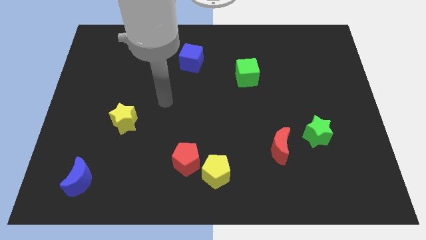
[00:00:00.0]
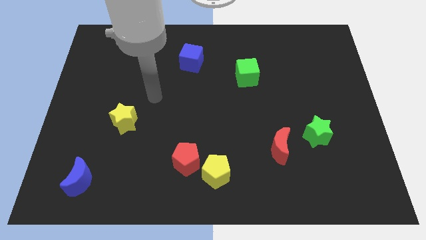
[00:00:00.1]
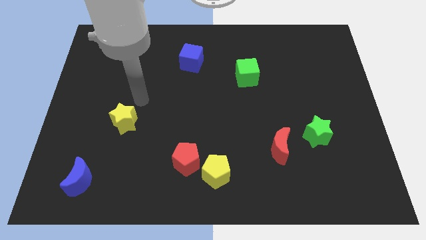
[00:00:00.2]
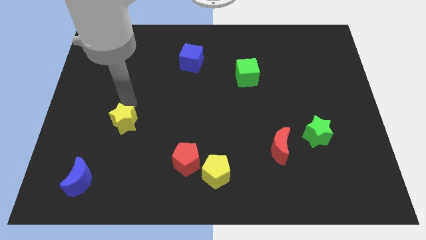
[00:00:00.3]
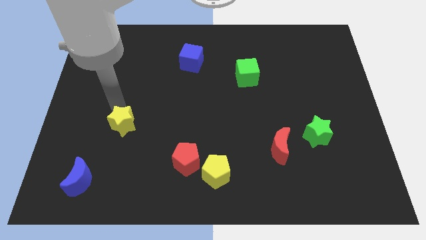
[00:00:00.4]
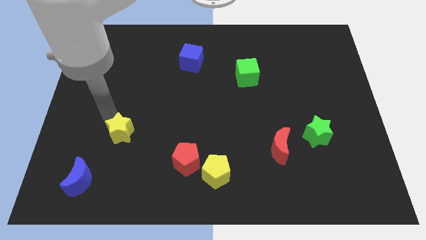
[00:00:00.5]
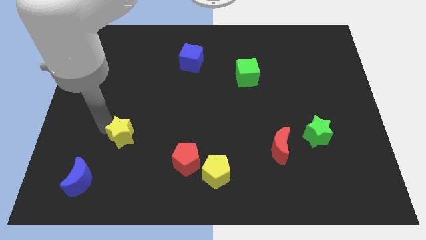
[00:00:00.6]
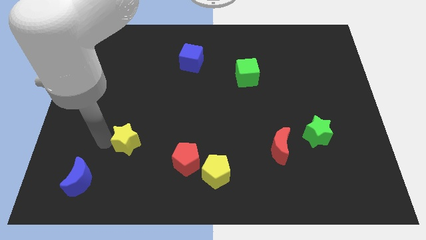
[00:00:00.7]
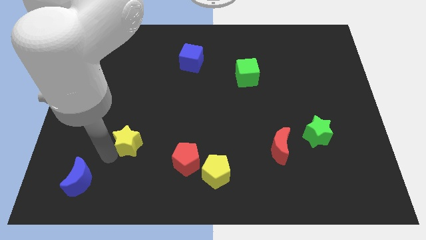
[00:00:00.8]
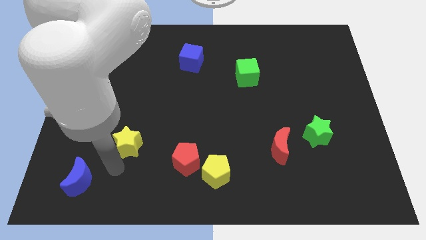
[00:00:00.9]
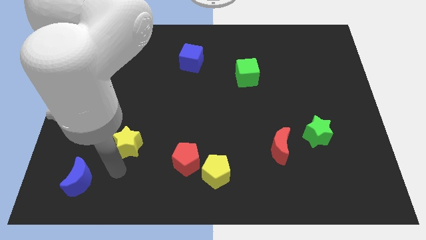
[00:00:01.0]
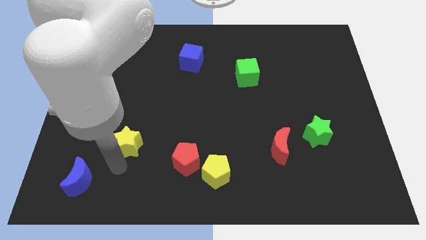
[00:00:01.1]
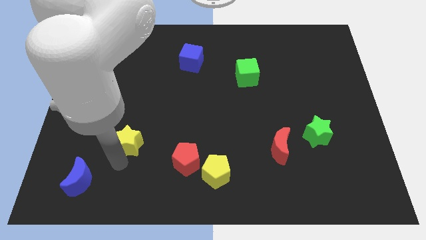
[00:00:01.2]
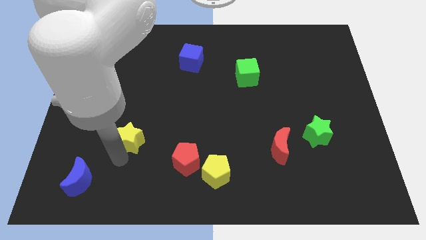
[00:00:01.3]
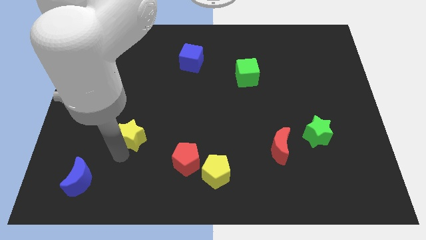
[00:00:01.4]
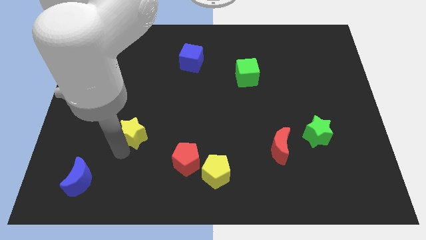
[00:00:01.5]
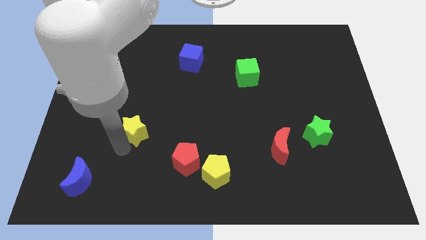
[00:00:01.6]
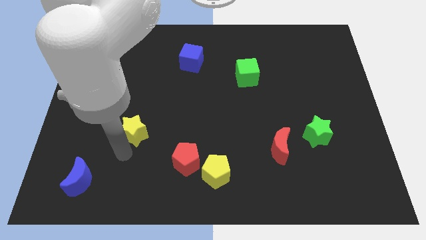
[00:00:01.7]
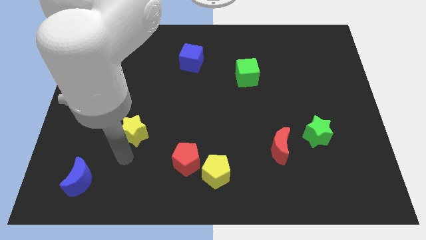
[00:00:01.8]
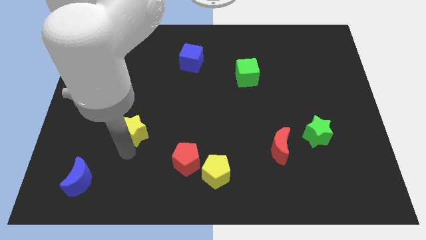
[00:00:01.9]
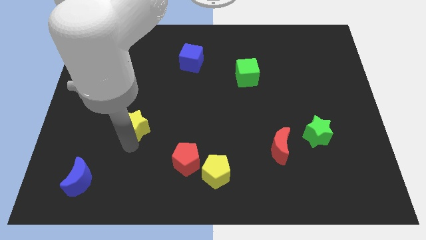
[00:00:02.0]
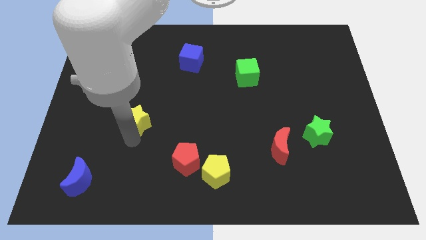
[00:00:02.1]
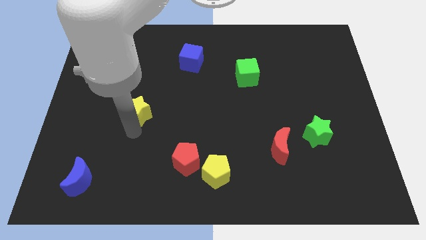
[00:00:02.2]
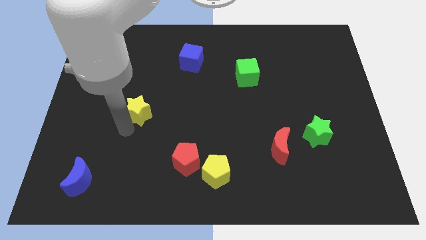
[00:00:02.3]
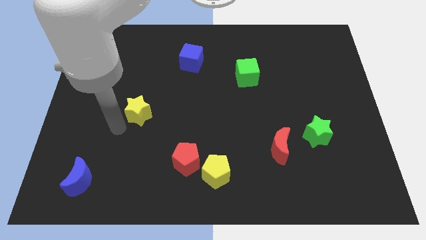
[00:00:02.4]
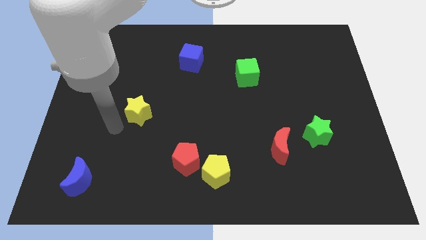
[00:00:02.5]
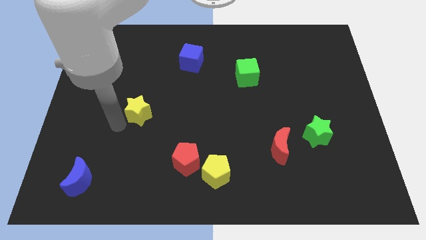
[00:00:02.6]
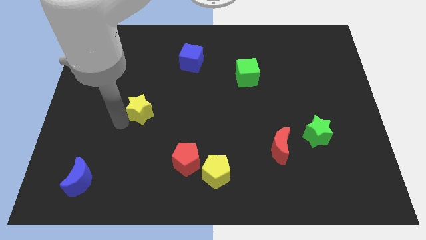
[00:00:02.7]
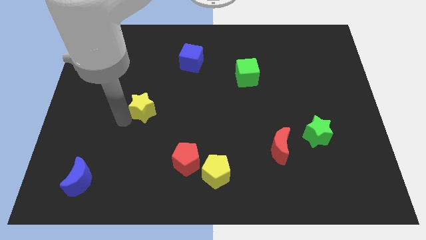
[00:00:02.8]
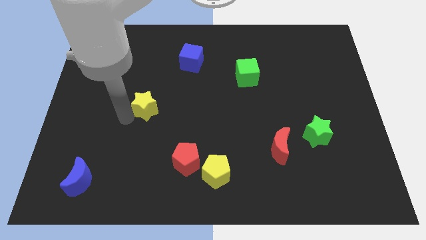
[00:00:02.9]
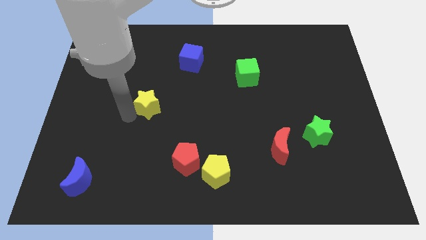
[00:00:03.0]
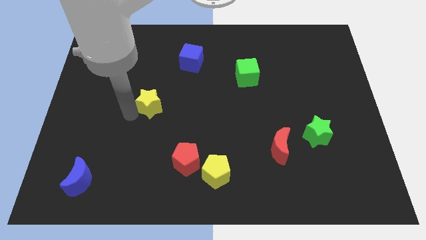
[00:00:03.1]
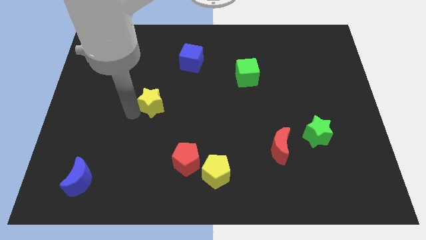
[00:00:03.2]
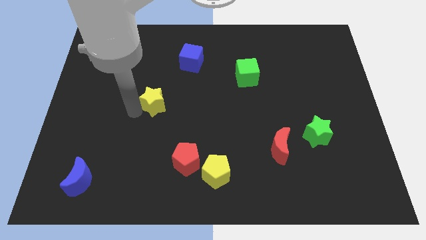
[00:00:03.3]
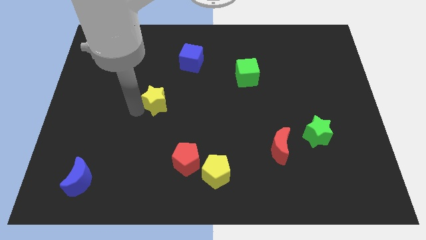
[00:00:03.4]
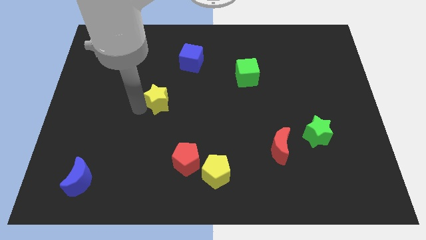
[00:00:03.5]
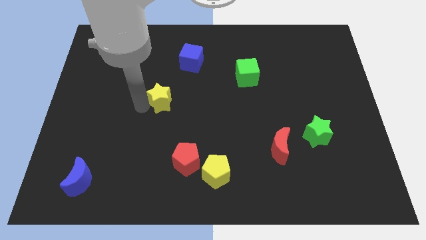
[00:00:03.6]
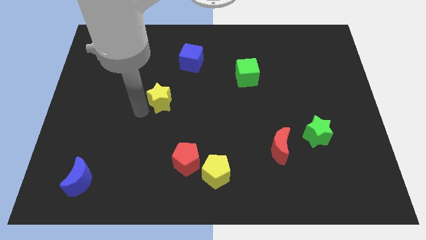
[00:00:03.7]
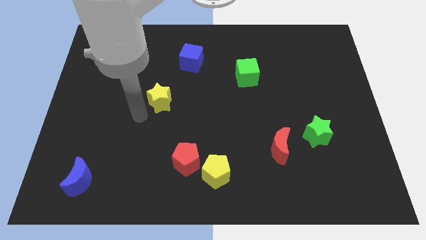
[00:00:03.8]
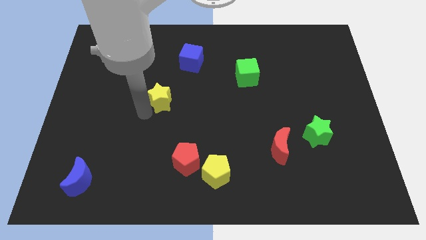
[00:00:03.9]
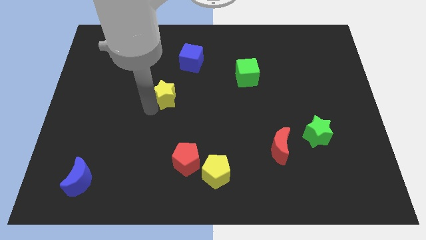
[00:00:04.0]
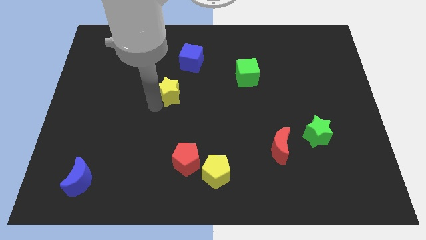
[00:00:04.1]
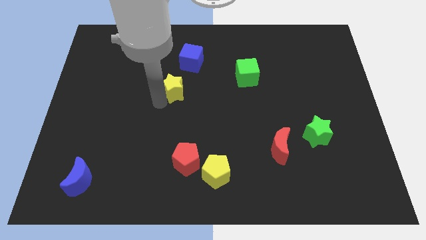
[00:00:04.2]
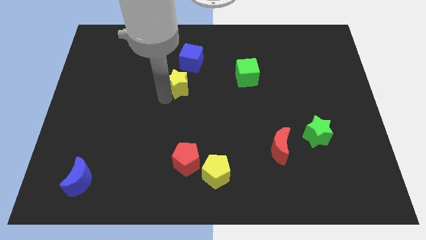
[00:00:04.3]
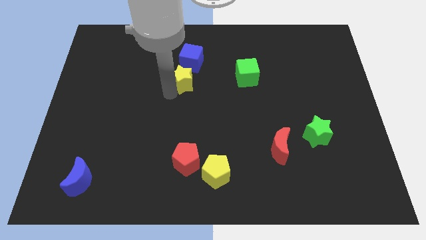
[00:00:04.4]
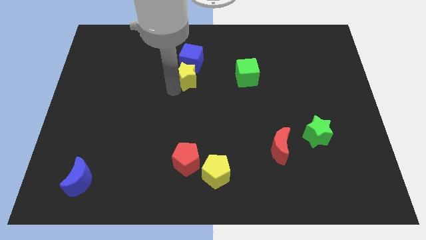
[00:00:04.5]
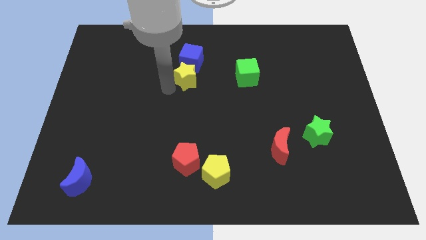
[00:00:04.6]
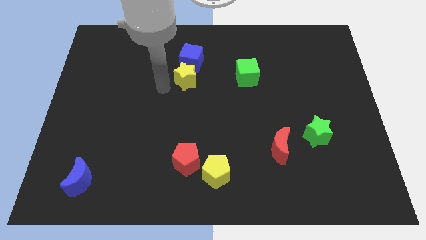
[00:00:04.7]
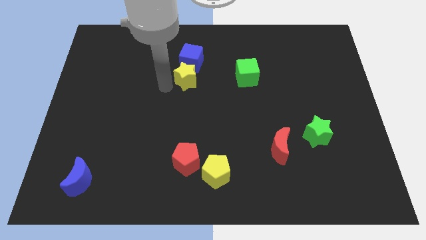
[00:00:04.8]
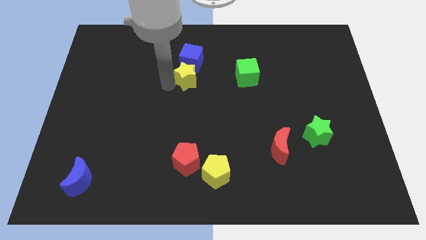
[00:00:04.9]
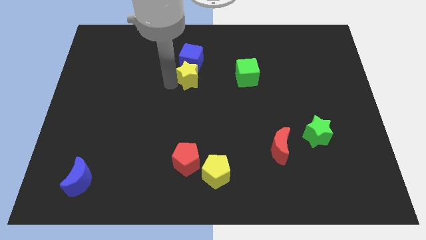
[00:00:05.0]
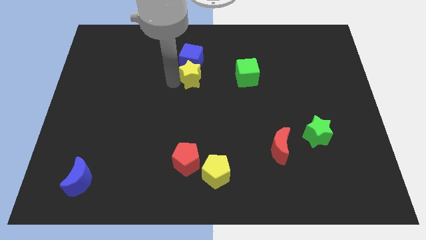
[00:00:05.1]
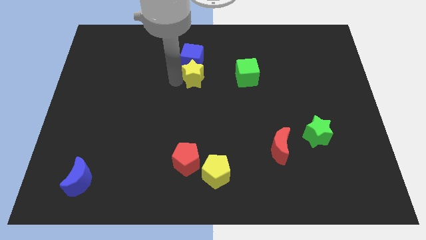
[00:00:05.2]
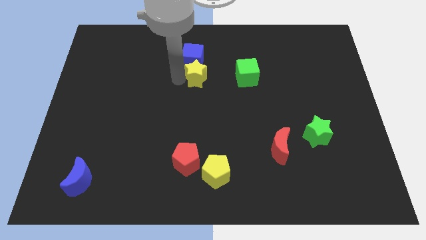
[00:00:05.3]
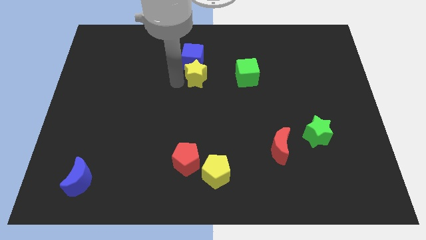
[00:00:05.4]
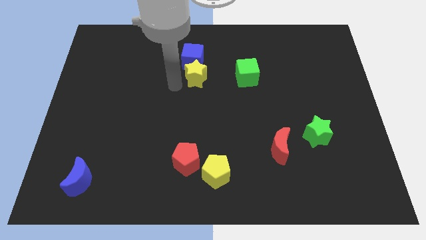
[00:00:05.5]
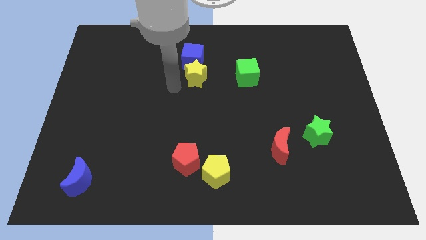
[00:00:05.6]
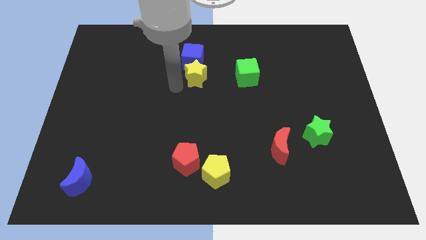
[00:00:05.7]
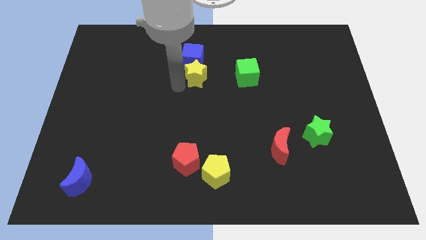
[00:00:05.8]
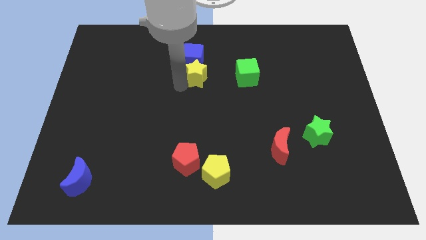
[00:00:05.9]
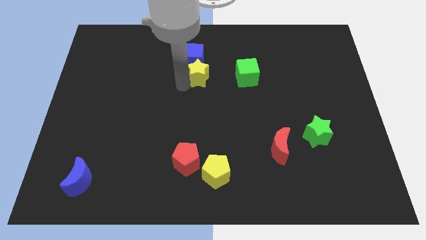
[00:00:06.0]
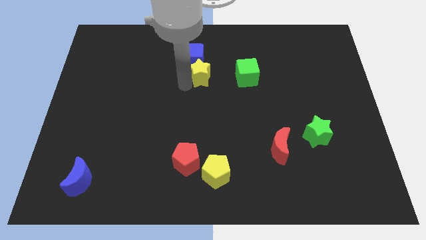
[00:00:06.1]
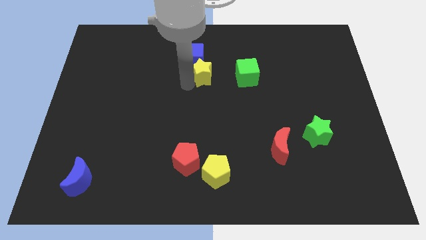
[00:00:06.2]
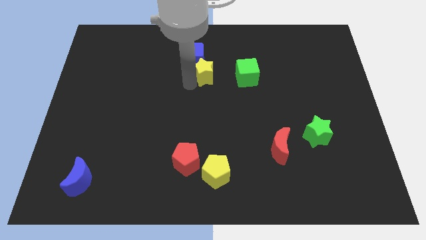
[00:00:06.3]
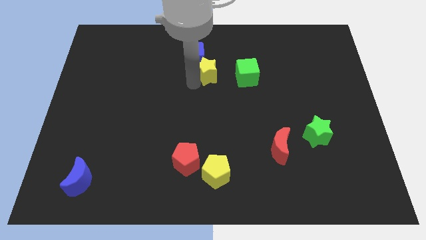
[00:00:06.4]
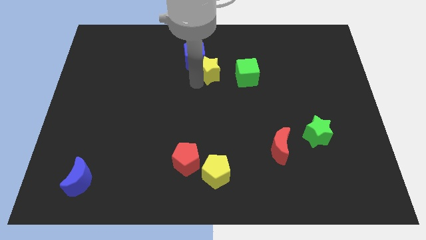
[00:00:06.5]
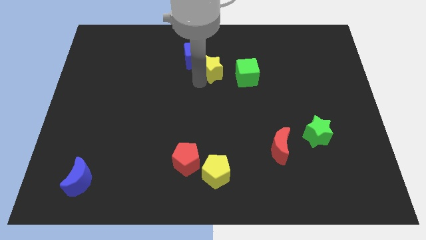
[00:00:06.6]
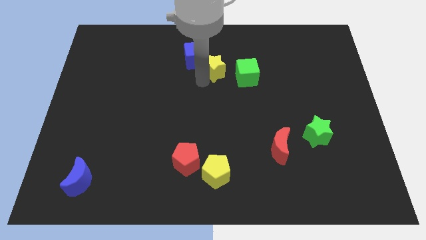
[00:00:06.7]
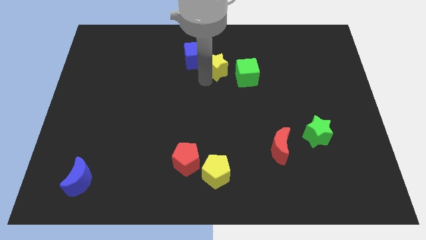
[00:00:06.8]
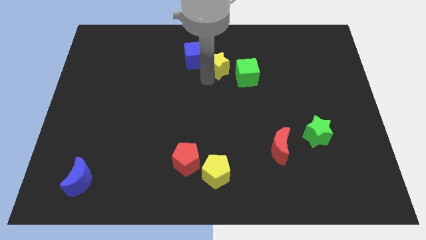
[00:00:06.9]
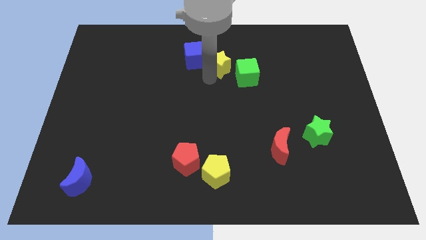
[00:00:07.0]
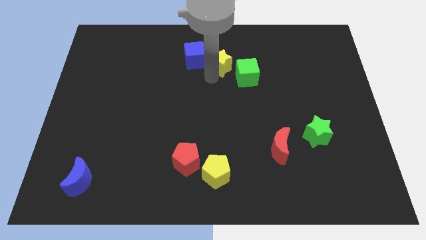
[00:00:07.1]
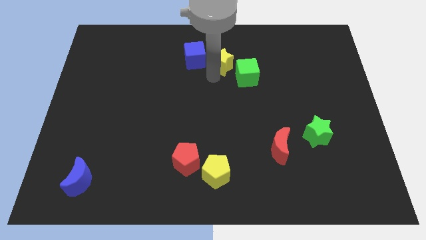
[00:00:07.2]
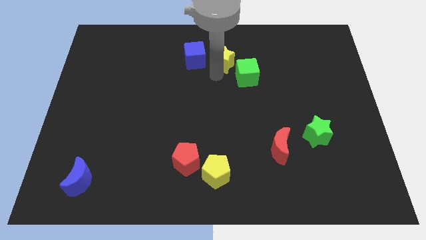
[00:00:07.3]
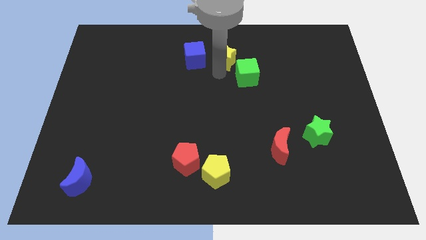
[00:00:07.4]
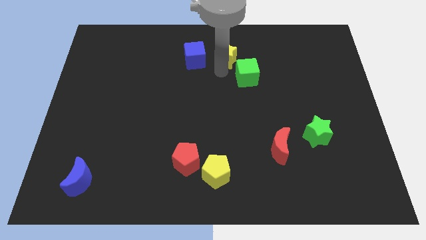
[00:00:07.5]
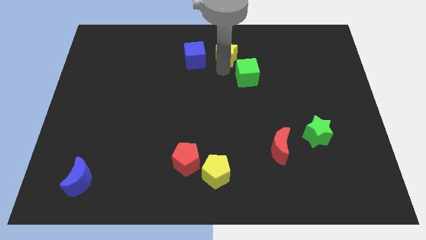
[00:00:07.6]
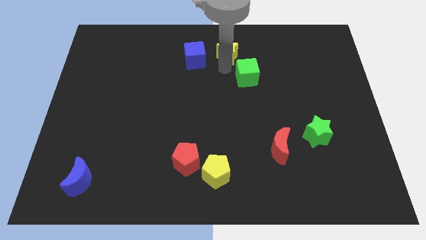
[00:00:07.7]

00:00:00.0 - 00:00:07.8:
push the yellow star to the top
